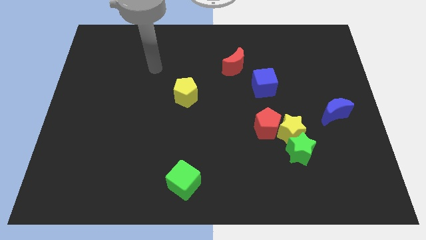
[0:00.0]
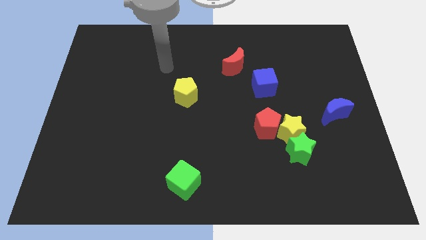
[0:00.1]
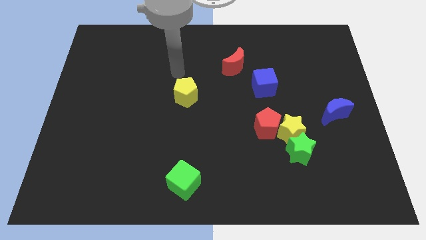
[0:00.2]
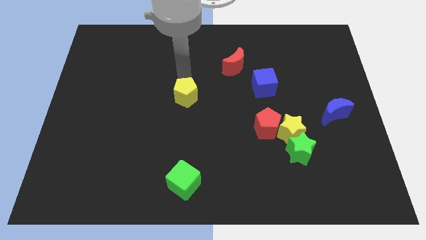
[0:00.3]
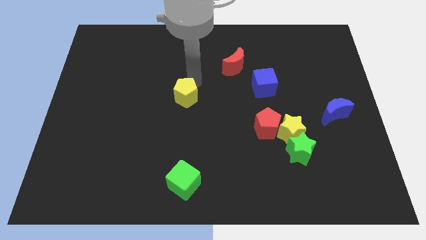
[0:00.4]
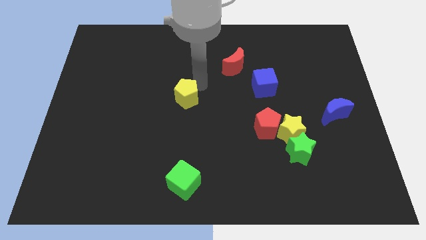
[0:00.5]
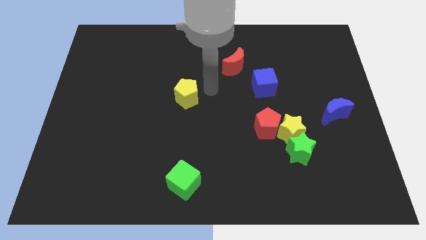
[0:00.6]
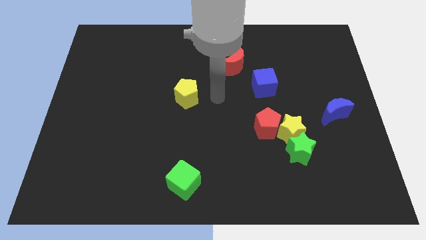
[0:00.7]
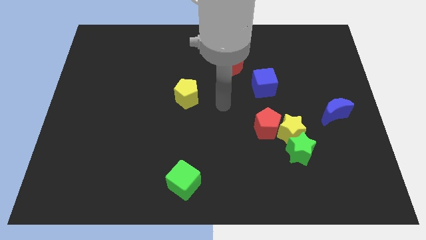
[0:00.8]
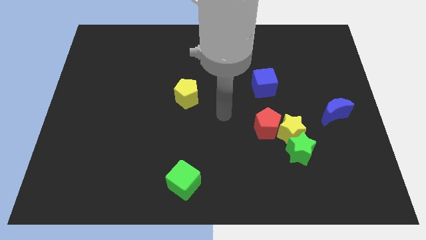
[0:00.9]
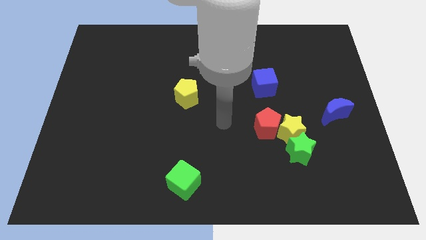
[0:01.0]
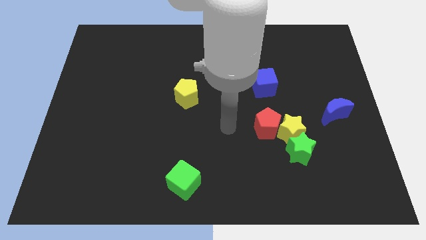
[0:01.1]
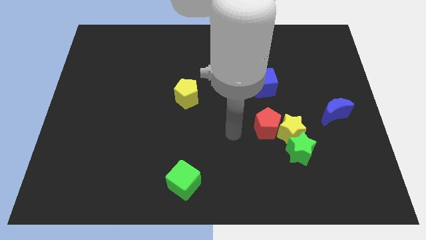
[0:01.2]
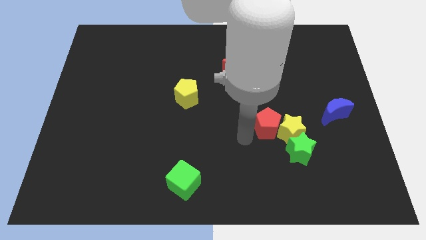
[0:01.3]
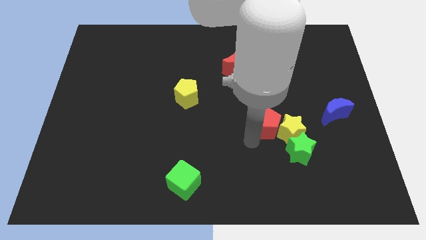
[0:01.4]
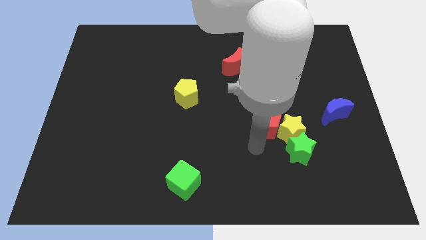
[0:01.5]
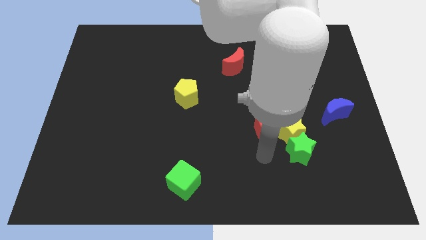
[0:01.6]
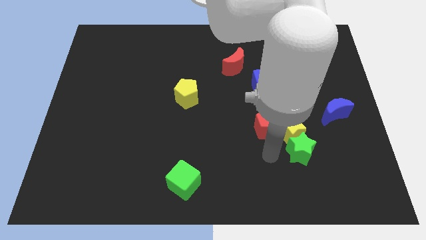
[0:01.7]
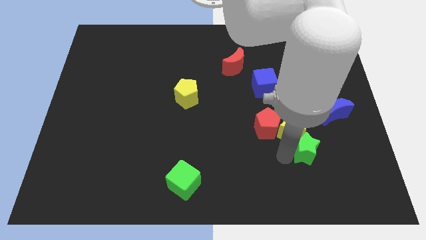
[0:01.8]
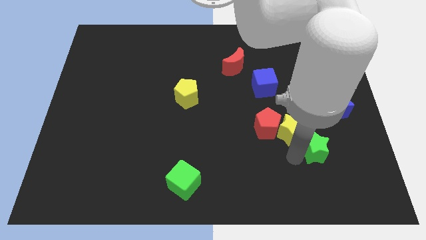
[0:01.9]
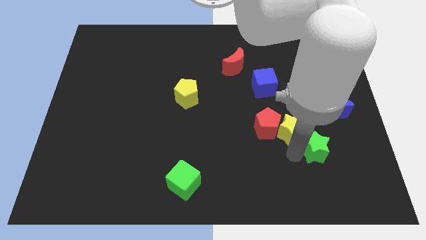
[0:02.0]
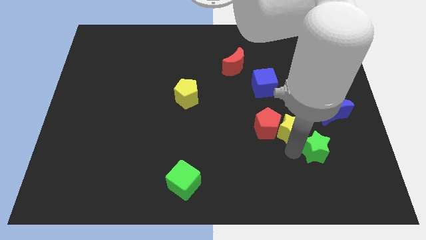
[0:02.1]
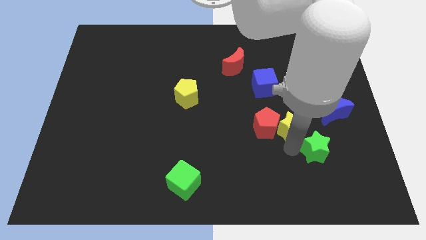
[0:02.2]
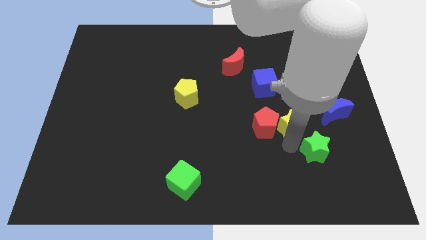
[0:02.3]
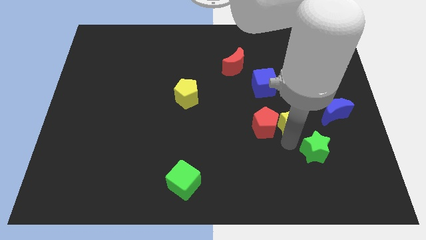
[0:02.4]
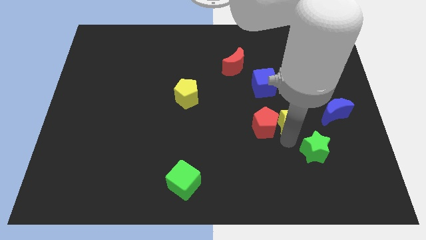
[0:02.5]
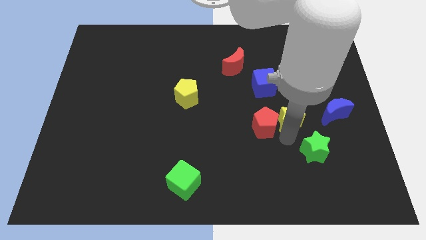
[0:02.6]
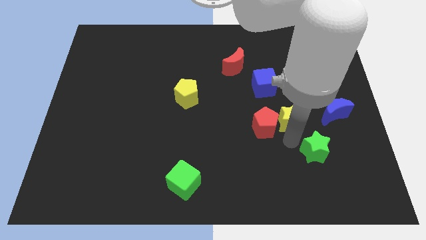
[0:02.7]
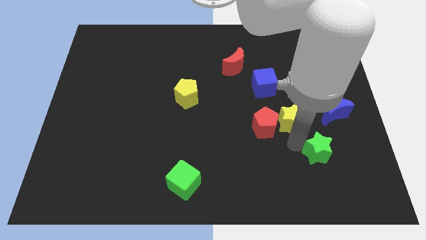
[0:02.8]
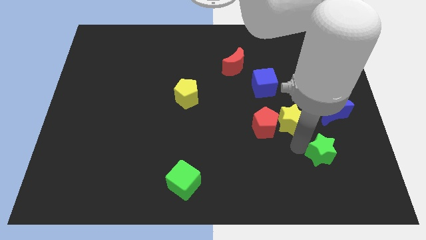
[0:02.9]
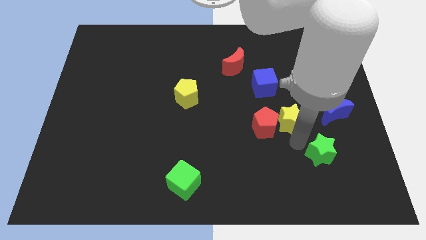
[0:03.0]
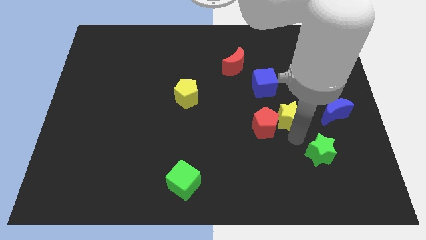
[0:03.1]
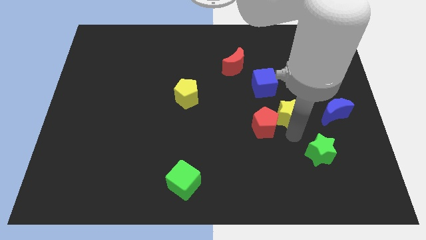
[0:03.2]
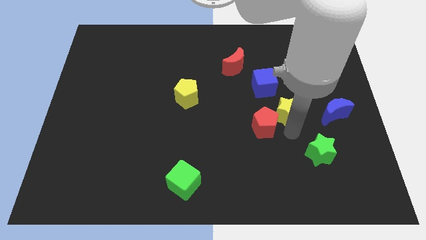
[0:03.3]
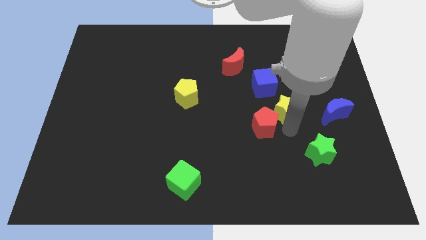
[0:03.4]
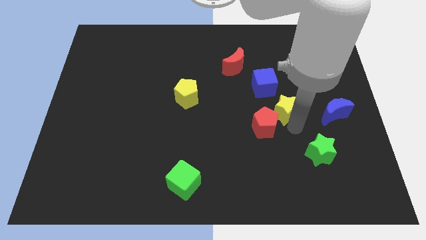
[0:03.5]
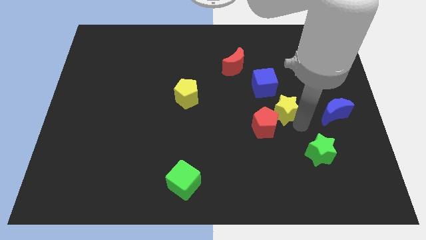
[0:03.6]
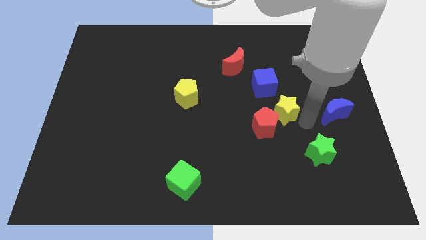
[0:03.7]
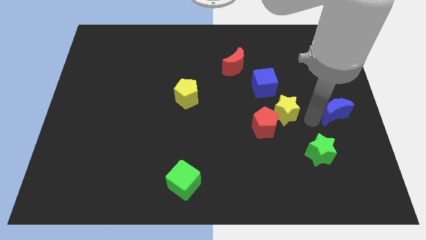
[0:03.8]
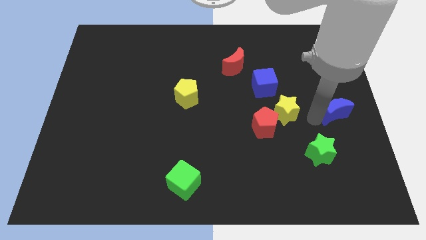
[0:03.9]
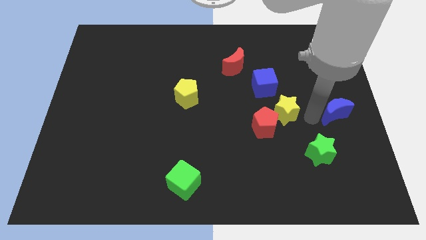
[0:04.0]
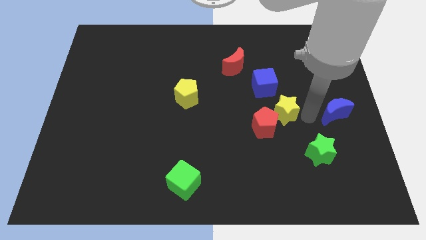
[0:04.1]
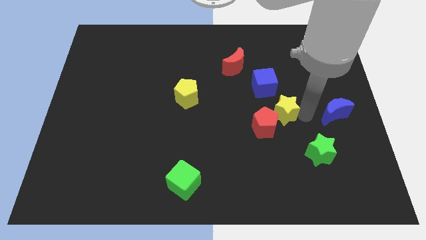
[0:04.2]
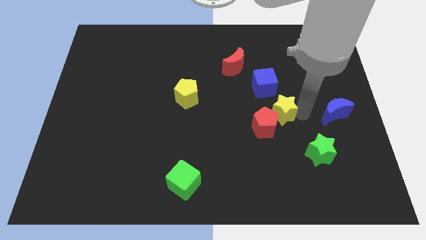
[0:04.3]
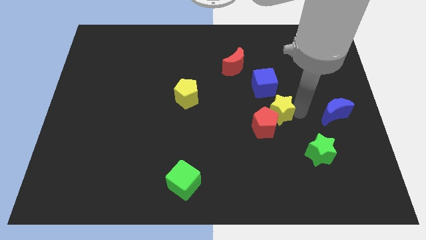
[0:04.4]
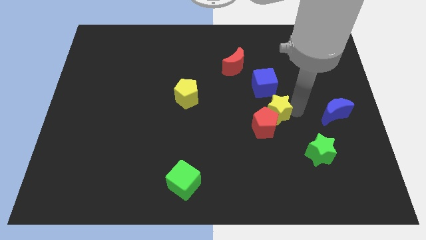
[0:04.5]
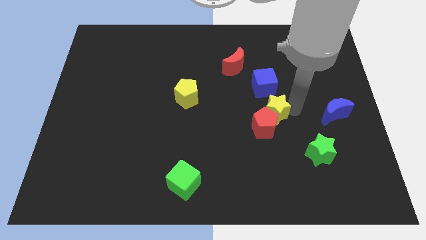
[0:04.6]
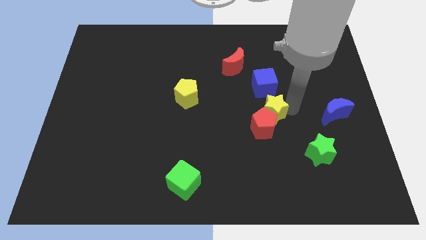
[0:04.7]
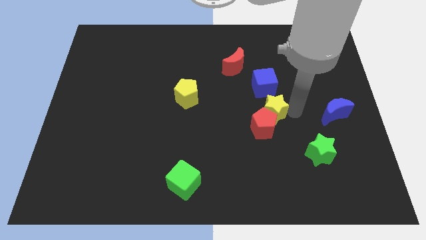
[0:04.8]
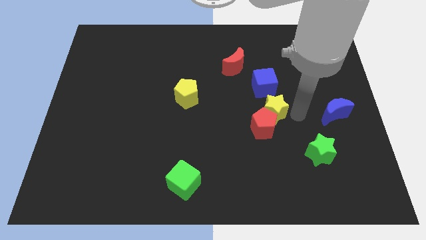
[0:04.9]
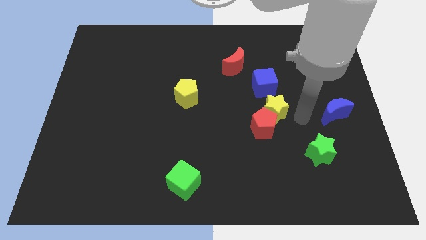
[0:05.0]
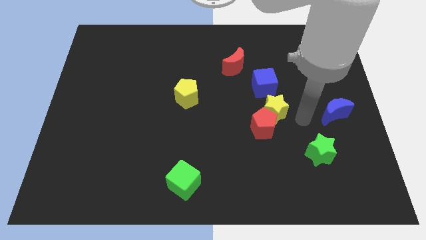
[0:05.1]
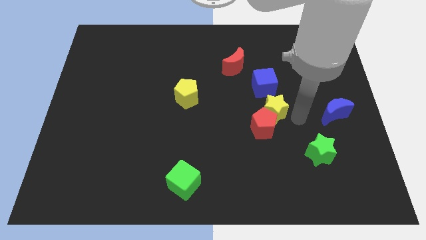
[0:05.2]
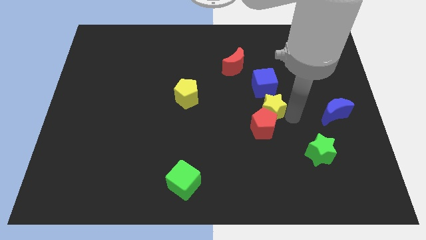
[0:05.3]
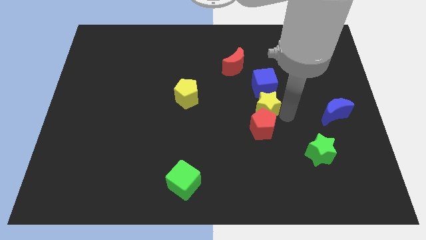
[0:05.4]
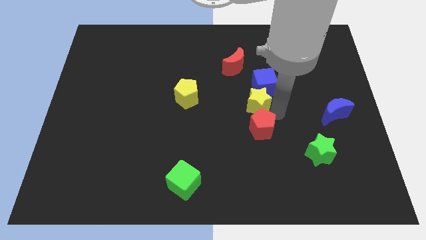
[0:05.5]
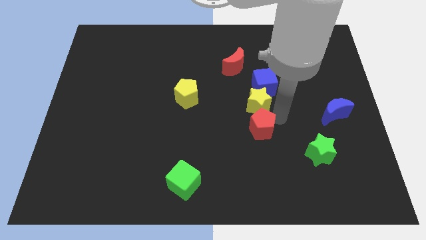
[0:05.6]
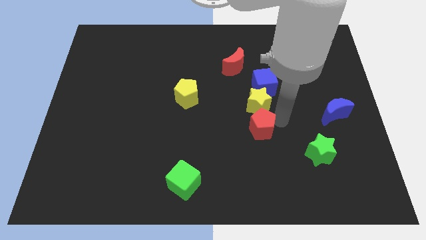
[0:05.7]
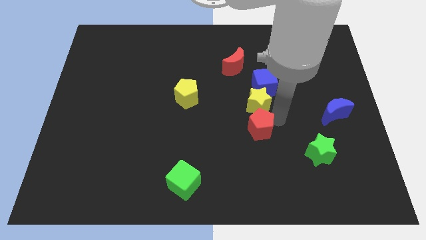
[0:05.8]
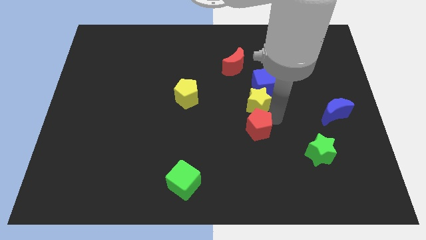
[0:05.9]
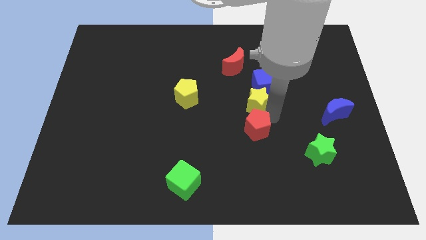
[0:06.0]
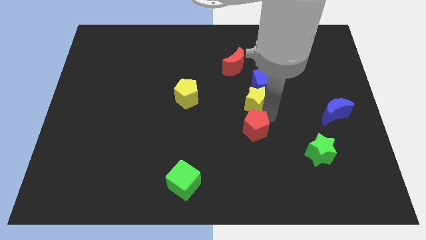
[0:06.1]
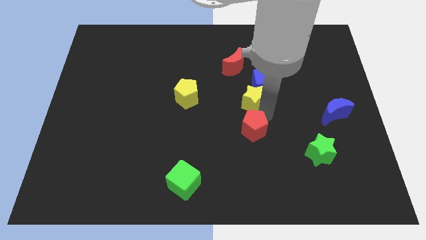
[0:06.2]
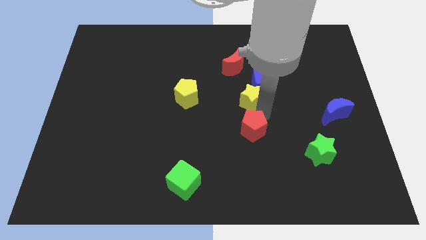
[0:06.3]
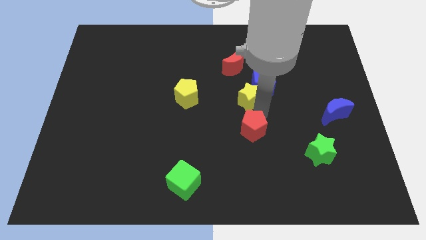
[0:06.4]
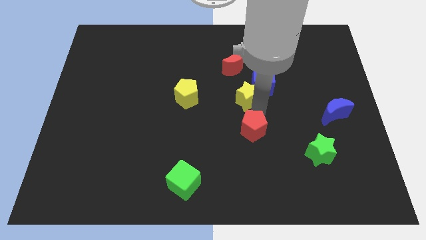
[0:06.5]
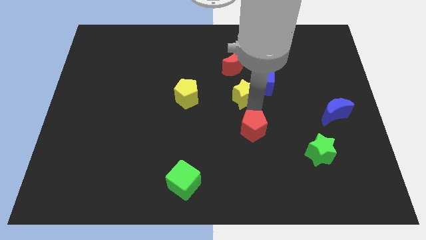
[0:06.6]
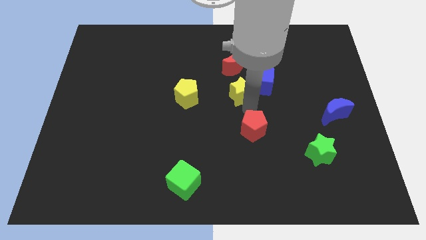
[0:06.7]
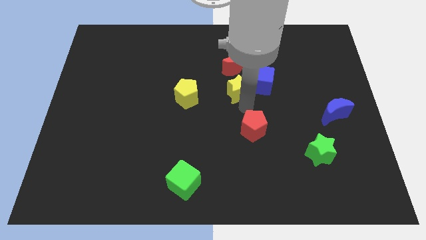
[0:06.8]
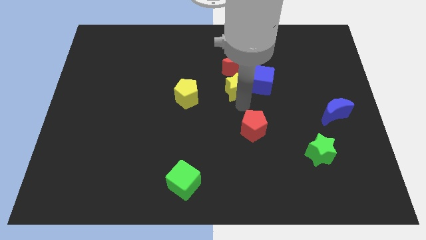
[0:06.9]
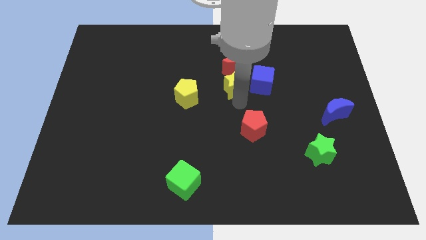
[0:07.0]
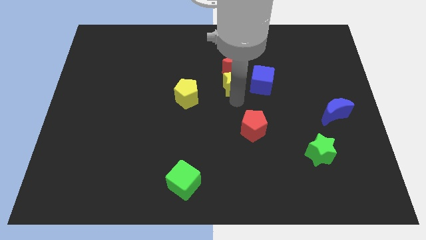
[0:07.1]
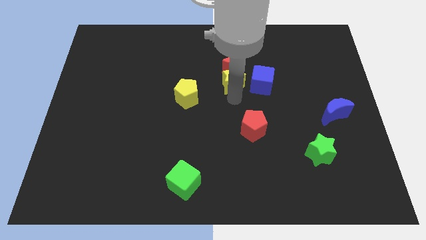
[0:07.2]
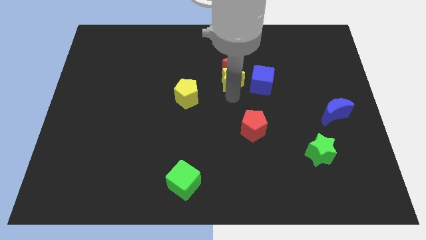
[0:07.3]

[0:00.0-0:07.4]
put the yellow star close to the red moon
